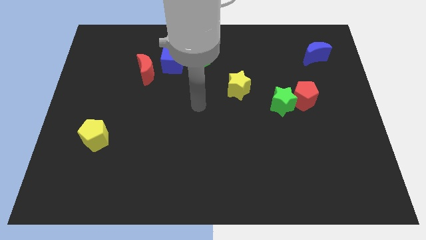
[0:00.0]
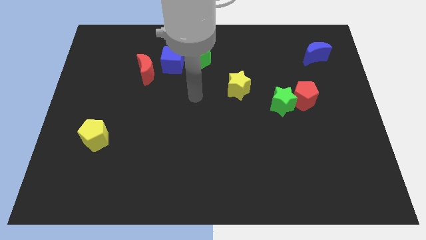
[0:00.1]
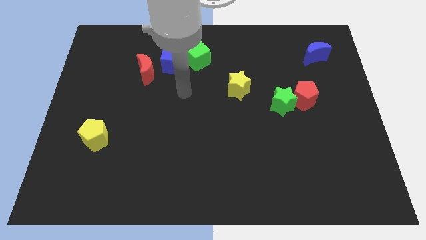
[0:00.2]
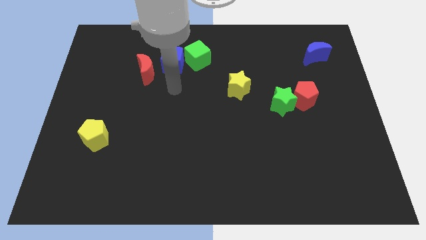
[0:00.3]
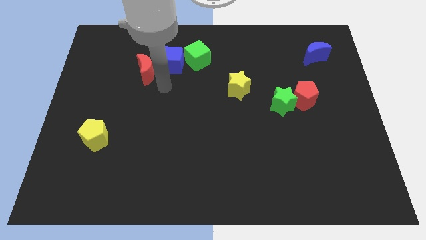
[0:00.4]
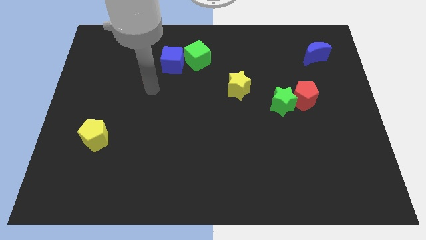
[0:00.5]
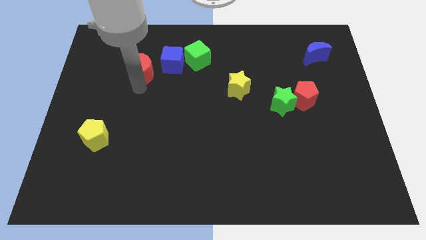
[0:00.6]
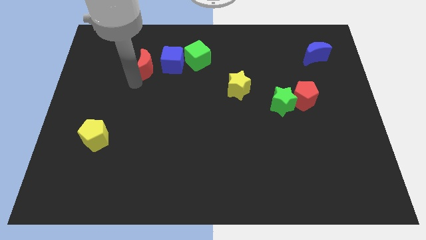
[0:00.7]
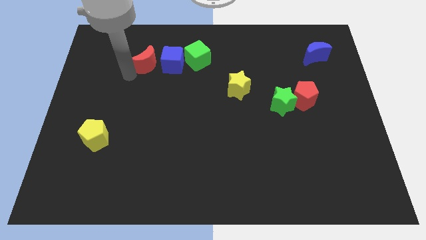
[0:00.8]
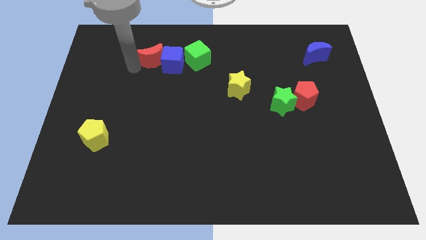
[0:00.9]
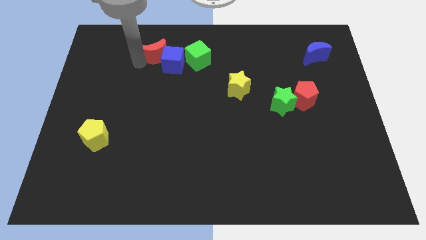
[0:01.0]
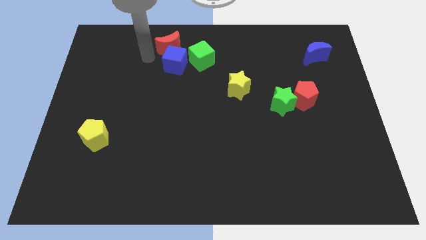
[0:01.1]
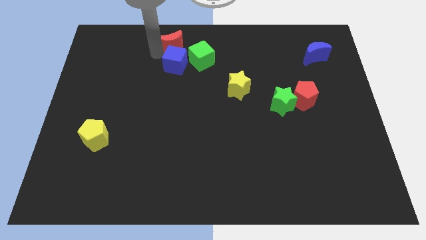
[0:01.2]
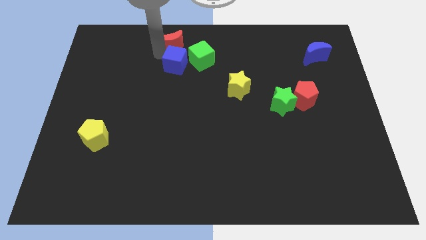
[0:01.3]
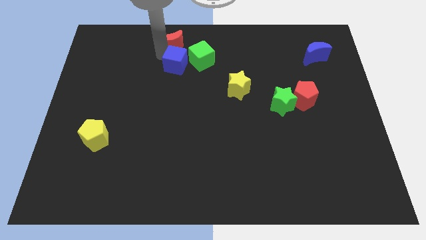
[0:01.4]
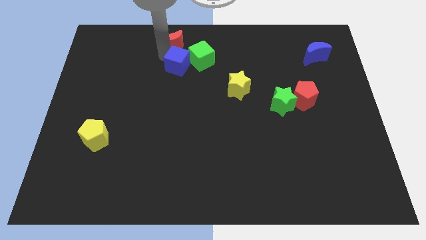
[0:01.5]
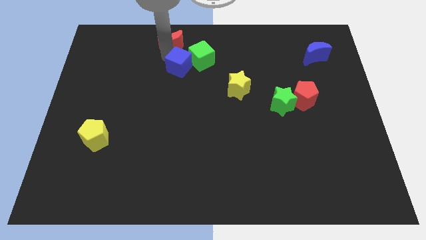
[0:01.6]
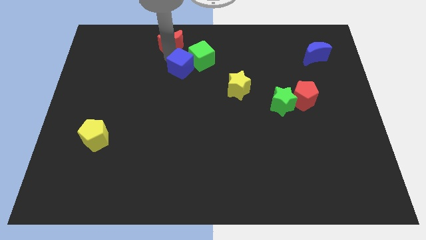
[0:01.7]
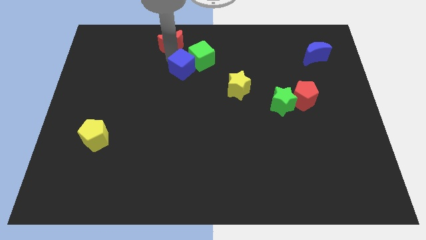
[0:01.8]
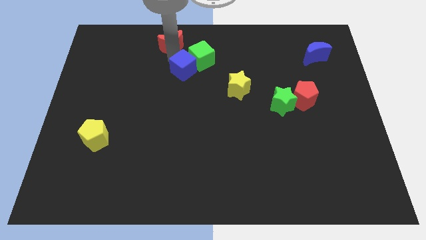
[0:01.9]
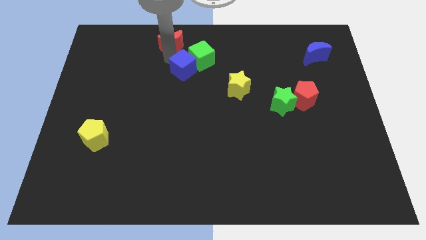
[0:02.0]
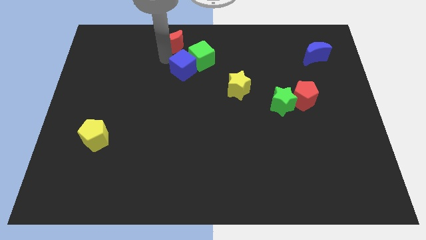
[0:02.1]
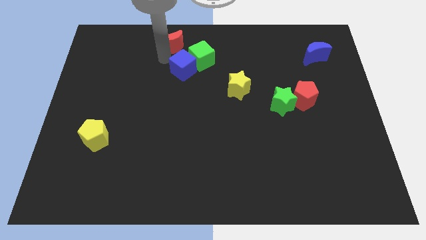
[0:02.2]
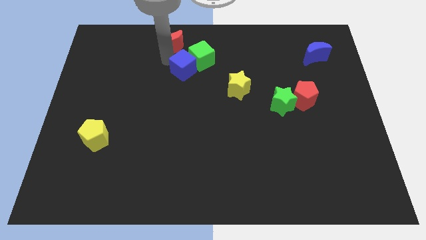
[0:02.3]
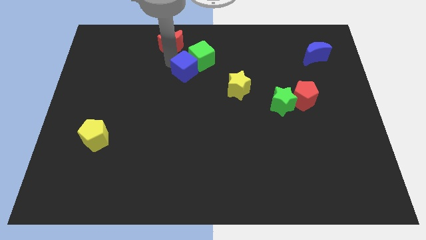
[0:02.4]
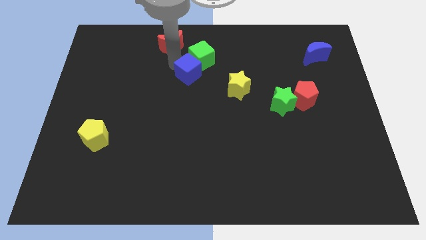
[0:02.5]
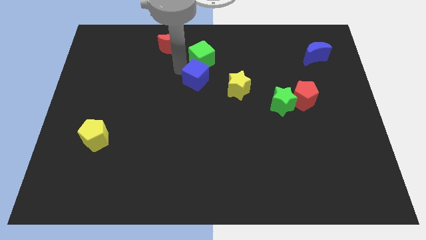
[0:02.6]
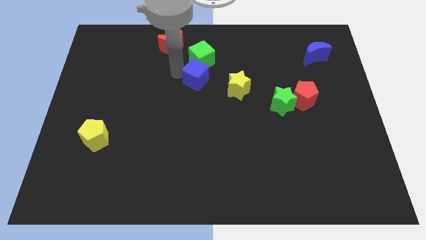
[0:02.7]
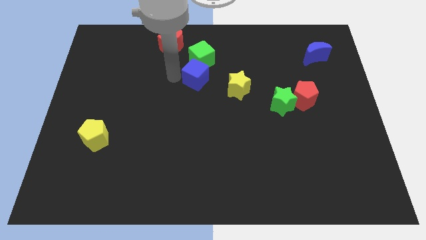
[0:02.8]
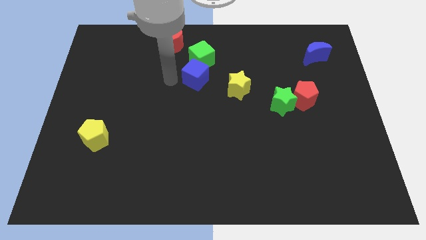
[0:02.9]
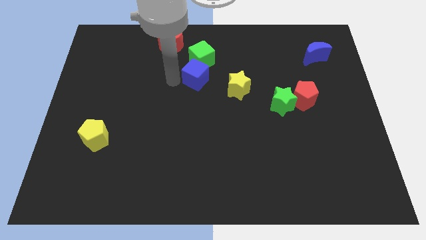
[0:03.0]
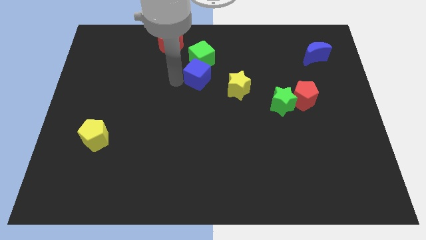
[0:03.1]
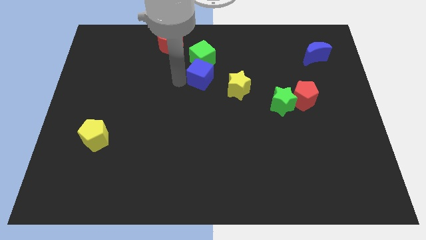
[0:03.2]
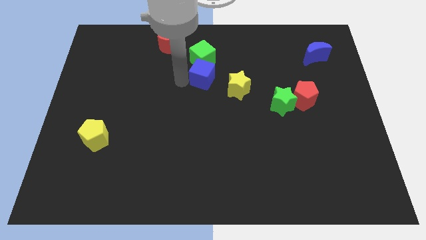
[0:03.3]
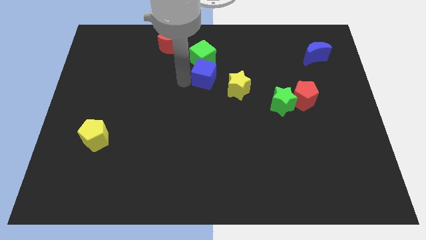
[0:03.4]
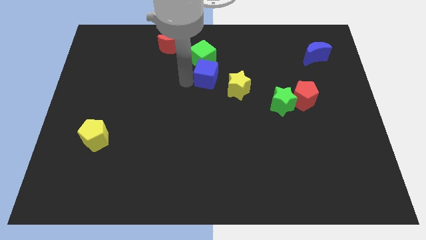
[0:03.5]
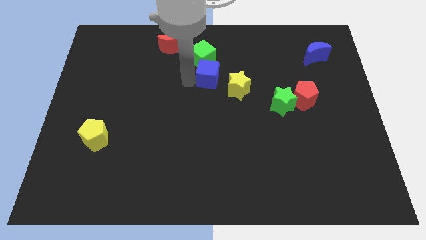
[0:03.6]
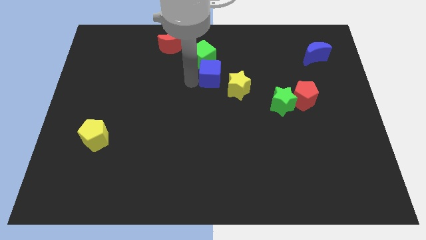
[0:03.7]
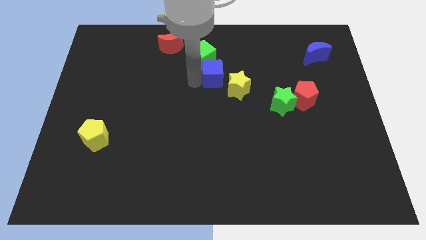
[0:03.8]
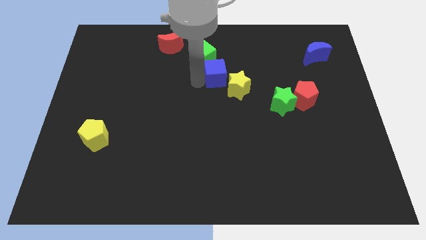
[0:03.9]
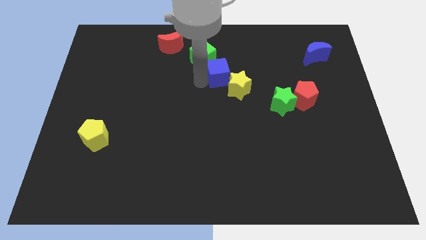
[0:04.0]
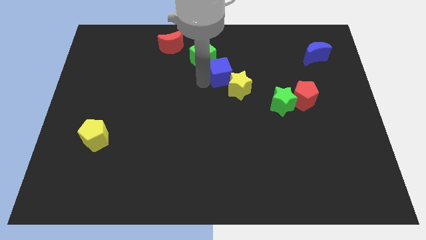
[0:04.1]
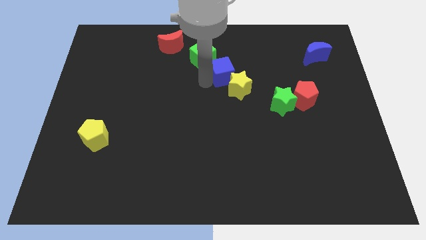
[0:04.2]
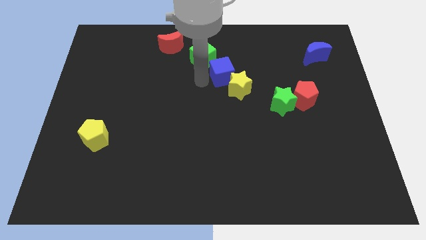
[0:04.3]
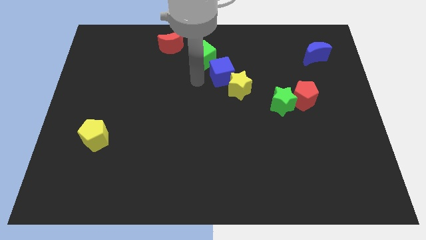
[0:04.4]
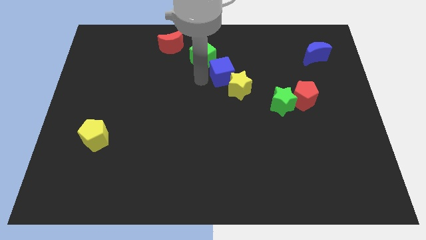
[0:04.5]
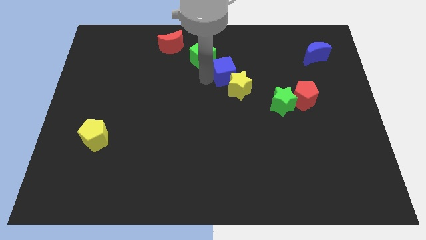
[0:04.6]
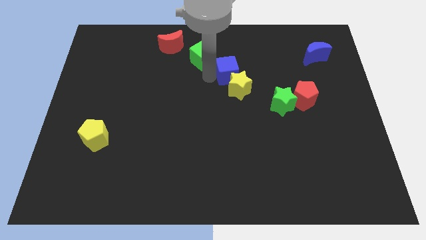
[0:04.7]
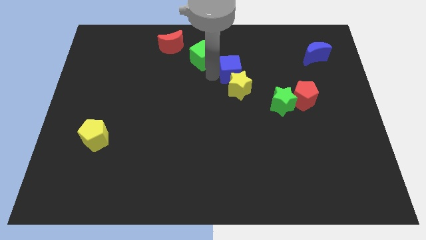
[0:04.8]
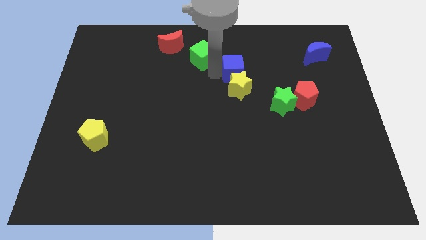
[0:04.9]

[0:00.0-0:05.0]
put the blue cube to the top right side of the yellow star

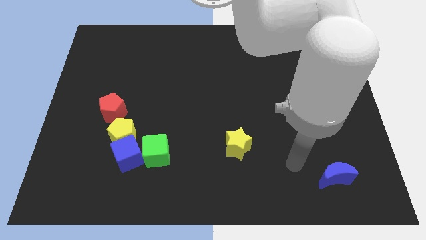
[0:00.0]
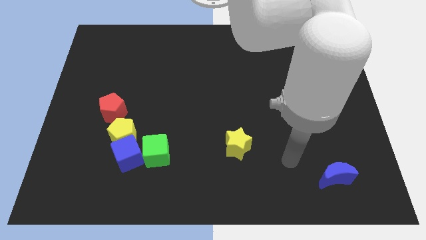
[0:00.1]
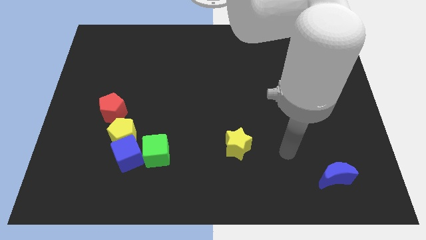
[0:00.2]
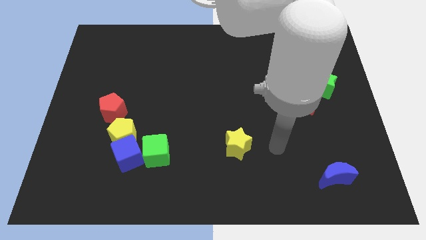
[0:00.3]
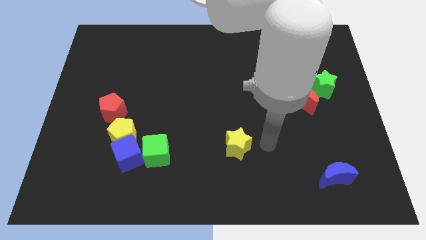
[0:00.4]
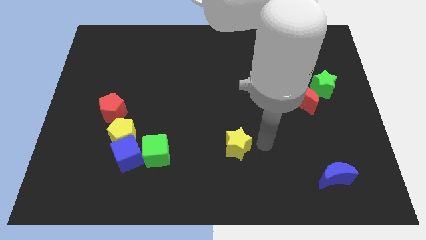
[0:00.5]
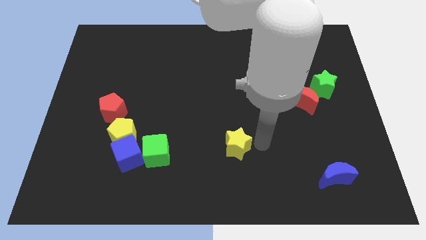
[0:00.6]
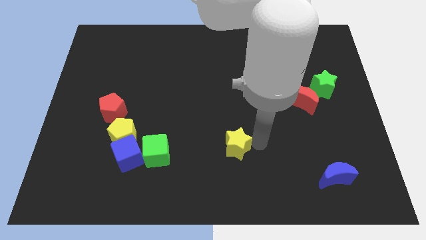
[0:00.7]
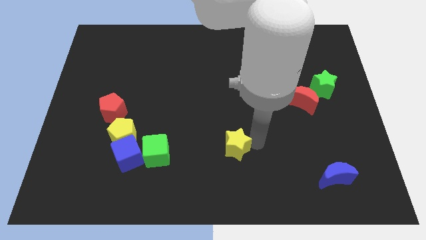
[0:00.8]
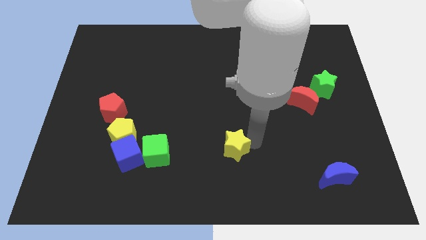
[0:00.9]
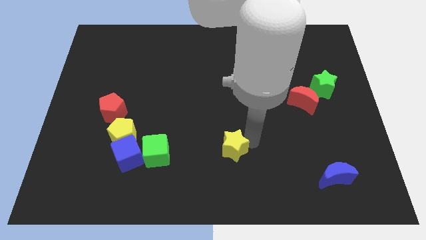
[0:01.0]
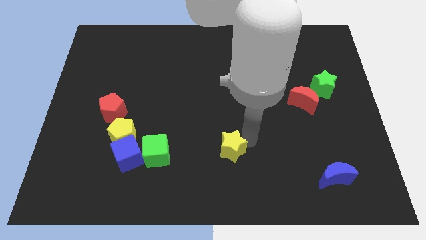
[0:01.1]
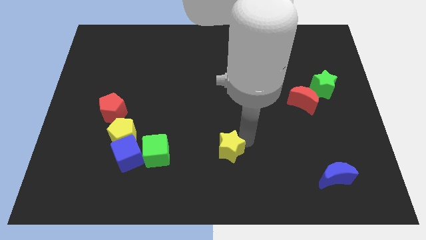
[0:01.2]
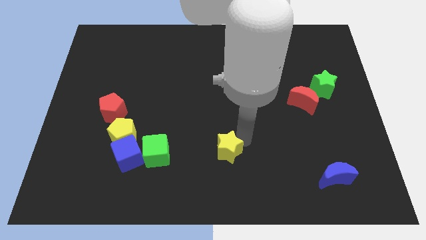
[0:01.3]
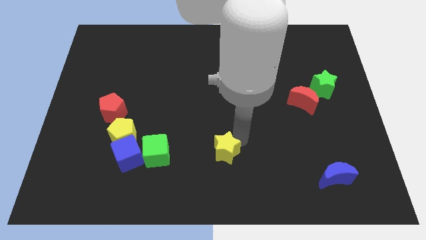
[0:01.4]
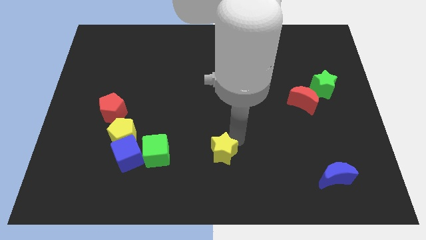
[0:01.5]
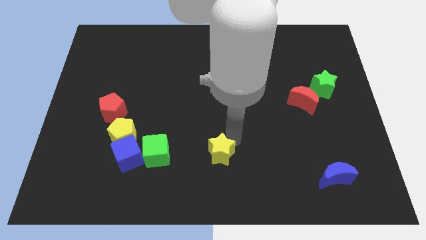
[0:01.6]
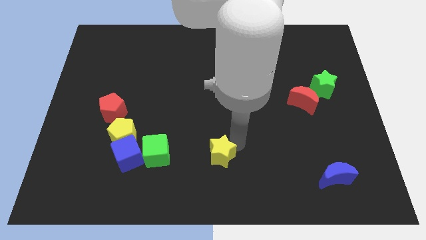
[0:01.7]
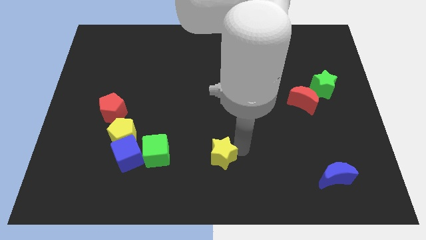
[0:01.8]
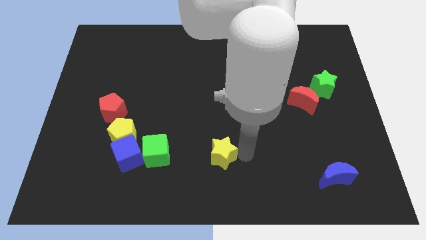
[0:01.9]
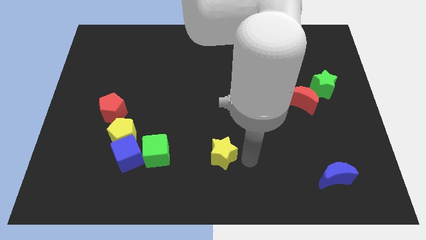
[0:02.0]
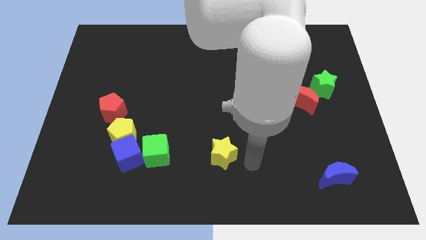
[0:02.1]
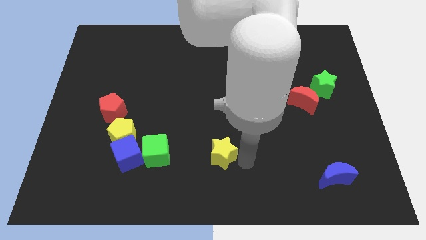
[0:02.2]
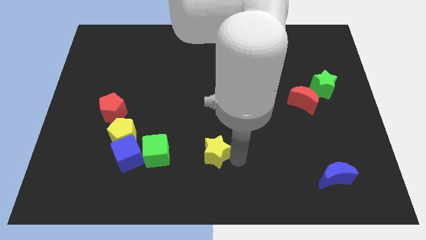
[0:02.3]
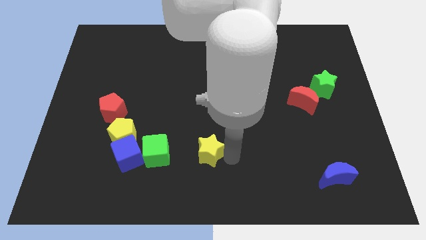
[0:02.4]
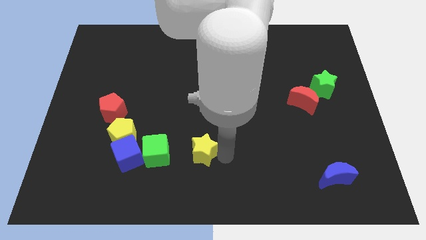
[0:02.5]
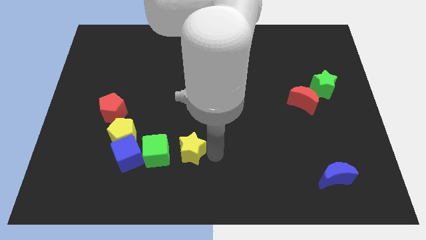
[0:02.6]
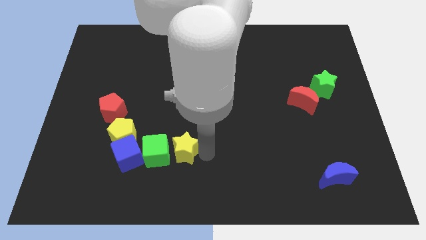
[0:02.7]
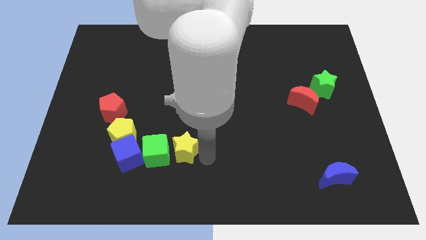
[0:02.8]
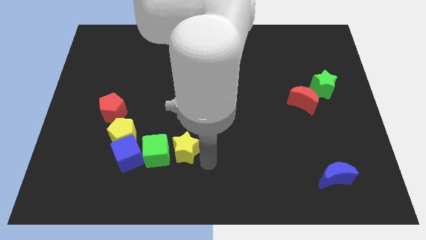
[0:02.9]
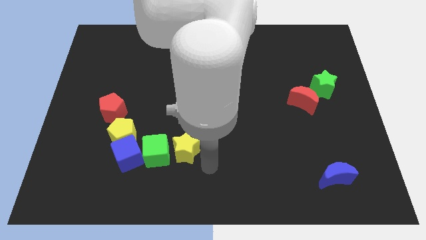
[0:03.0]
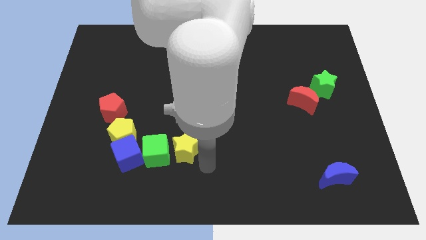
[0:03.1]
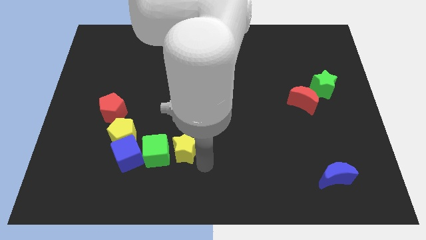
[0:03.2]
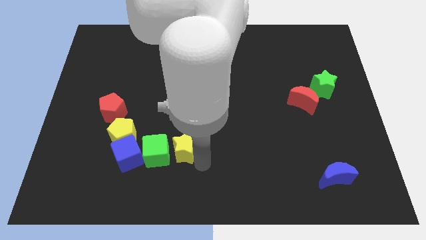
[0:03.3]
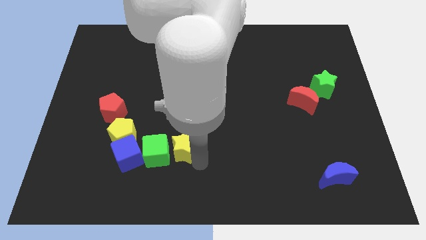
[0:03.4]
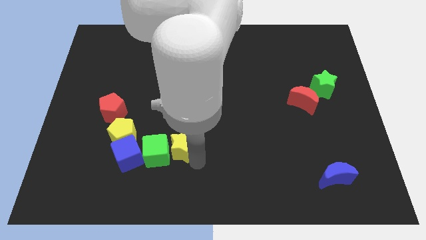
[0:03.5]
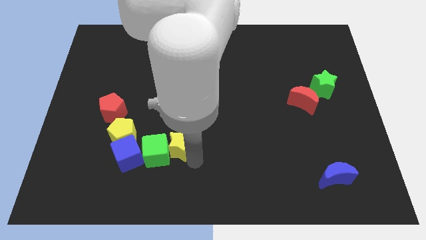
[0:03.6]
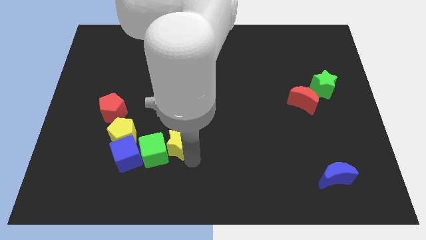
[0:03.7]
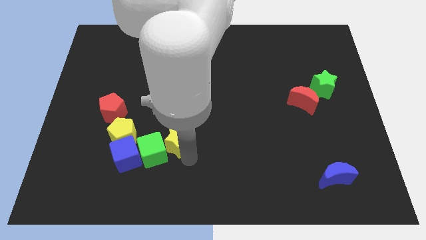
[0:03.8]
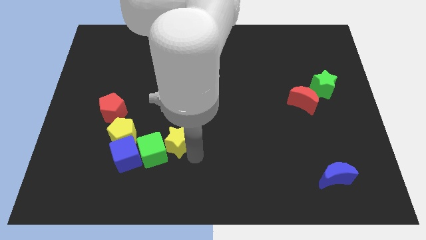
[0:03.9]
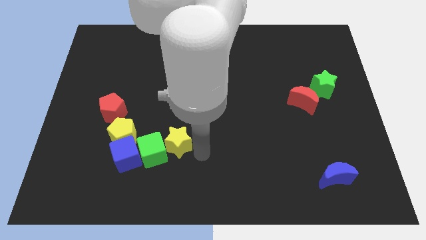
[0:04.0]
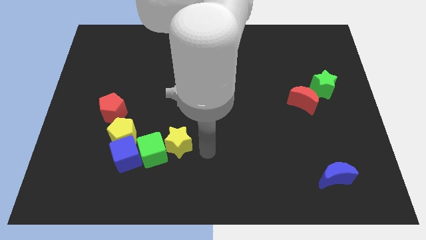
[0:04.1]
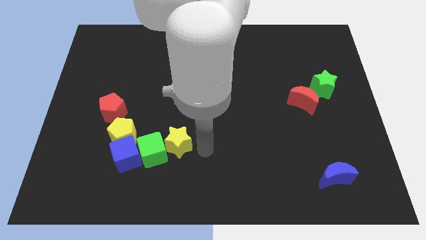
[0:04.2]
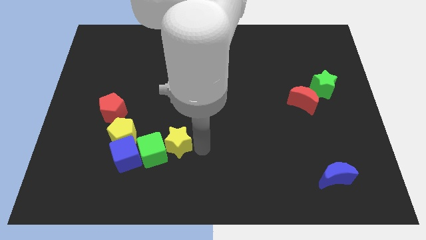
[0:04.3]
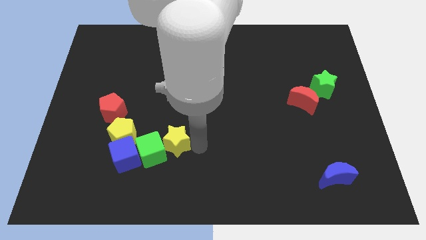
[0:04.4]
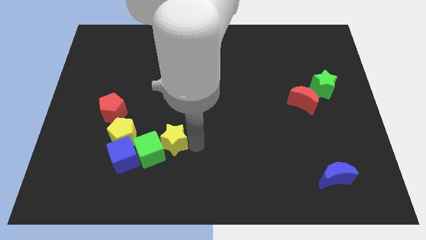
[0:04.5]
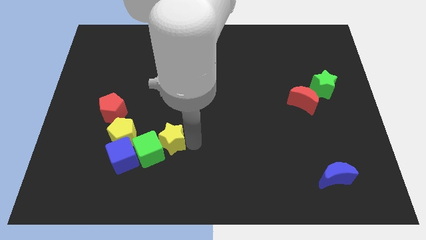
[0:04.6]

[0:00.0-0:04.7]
move the yellow star diagonally up and to the right of the blue cube
